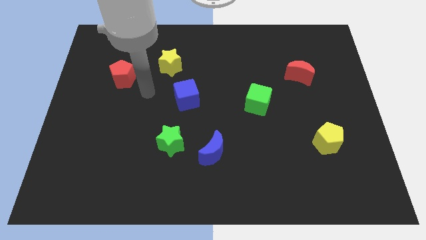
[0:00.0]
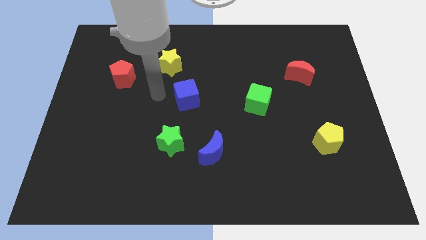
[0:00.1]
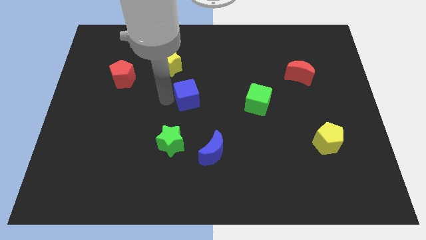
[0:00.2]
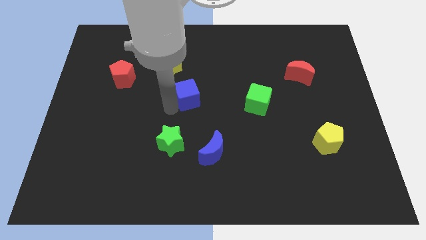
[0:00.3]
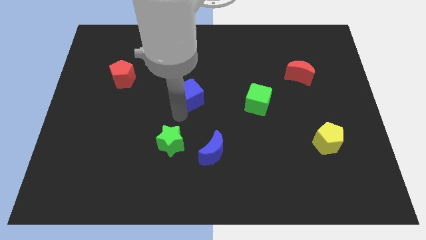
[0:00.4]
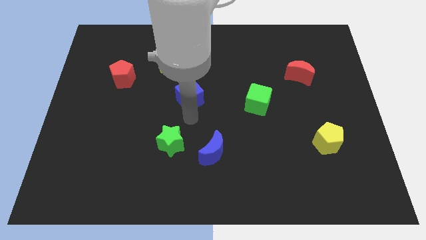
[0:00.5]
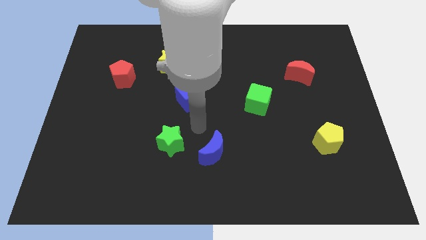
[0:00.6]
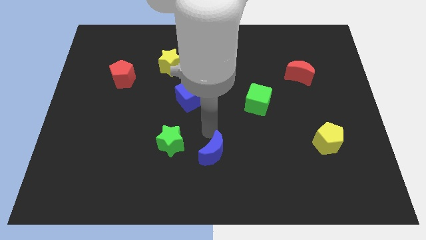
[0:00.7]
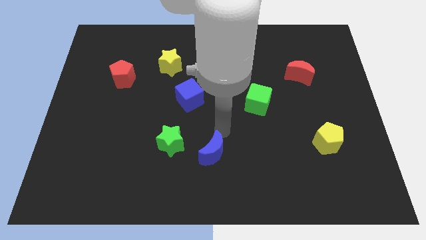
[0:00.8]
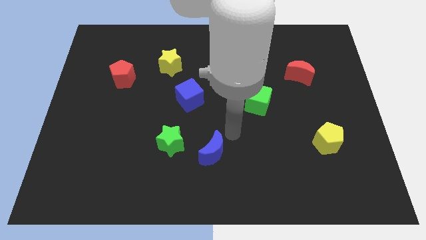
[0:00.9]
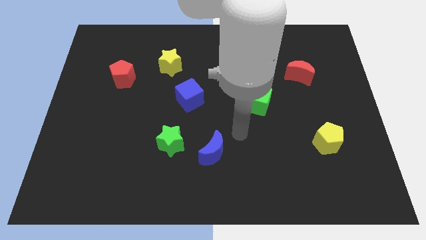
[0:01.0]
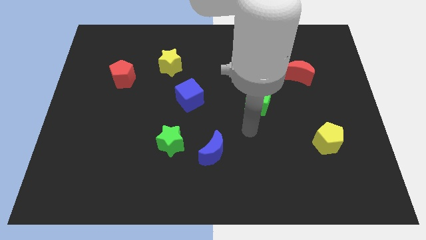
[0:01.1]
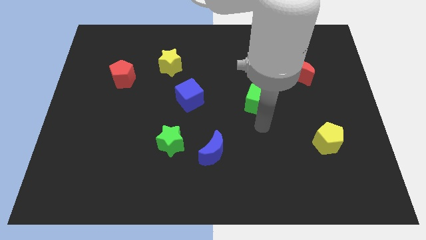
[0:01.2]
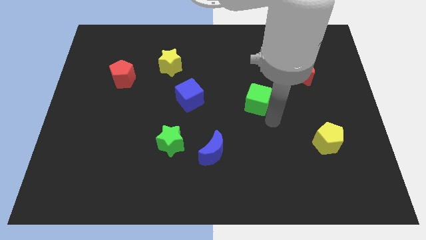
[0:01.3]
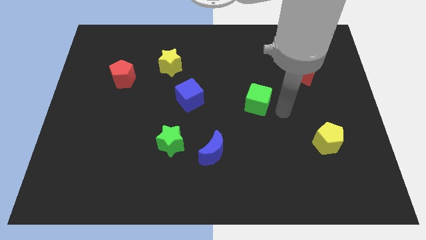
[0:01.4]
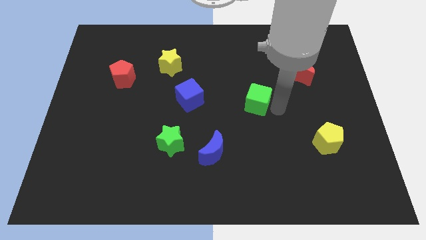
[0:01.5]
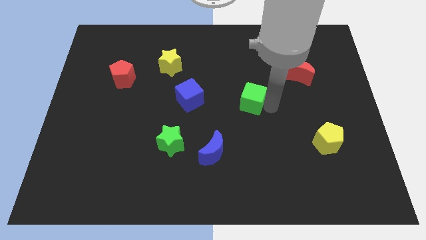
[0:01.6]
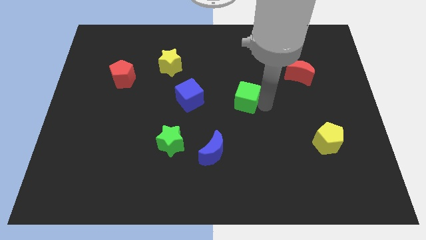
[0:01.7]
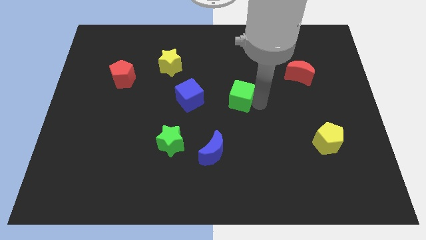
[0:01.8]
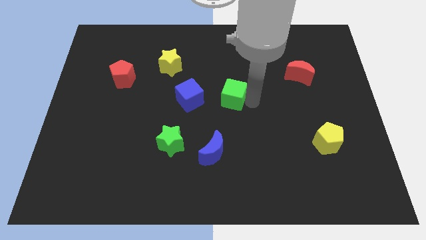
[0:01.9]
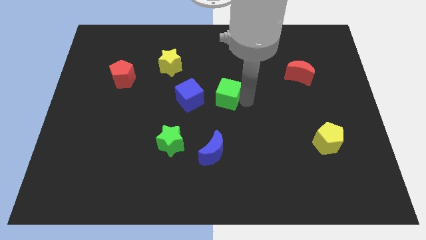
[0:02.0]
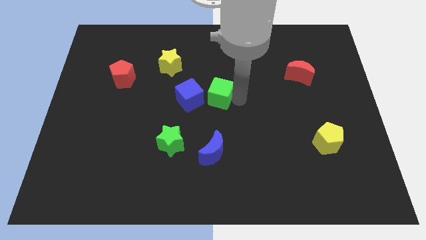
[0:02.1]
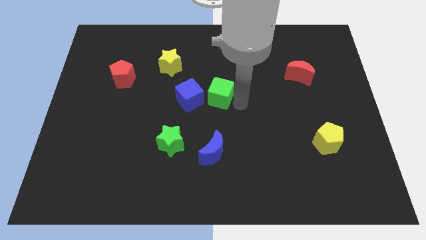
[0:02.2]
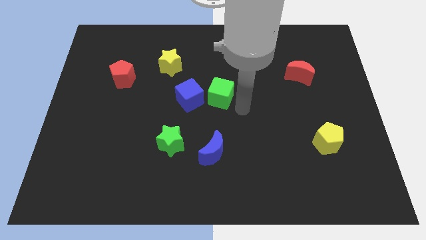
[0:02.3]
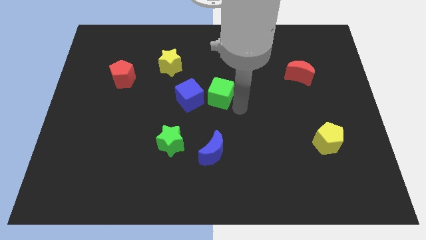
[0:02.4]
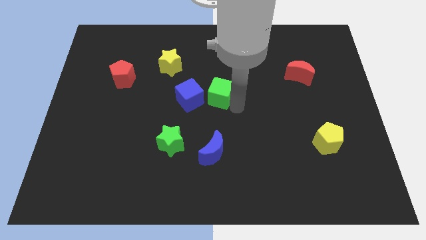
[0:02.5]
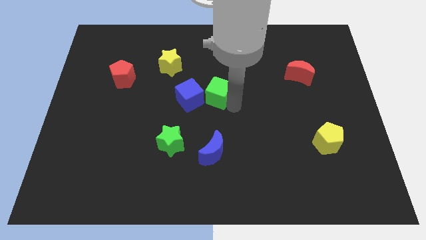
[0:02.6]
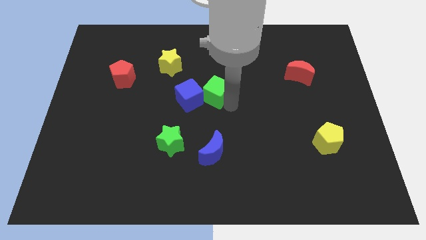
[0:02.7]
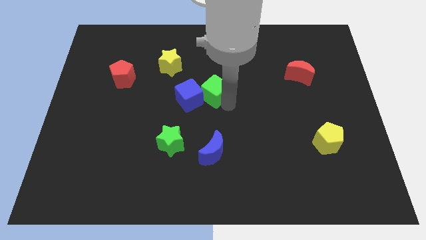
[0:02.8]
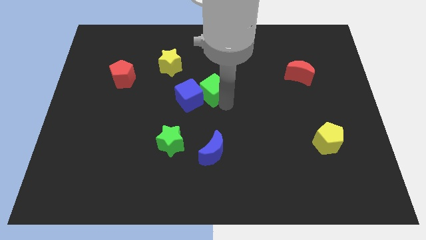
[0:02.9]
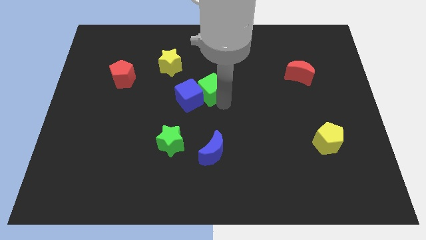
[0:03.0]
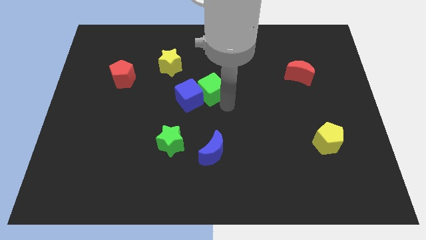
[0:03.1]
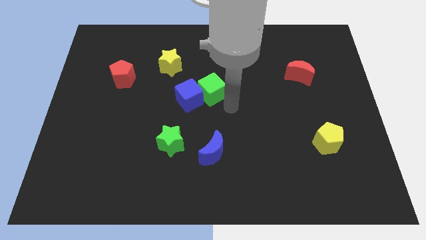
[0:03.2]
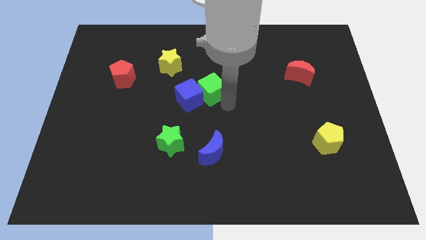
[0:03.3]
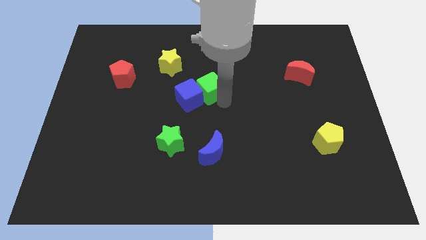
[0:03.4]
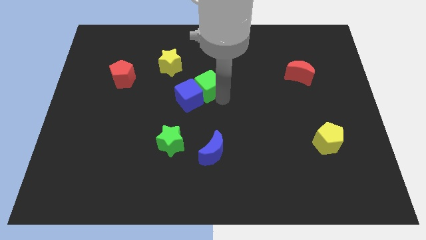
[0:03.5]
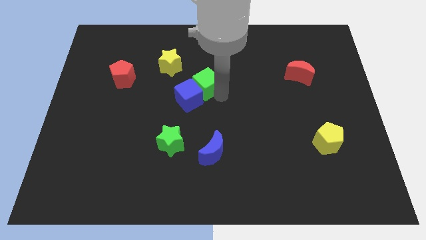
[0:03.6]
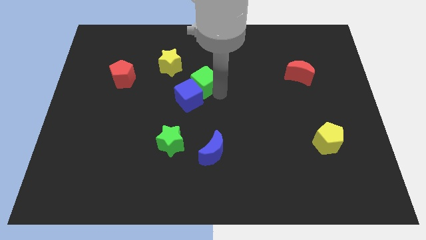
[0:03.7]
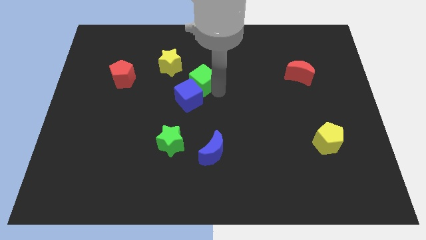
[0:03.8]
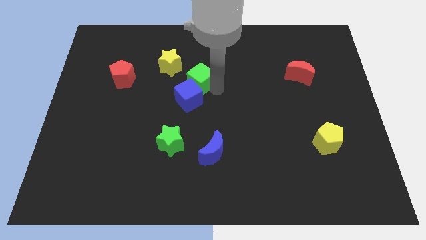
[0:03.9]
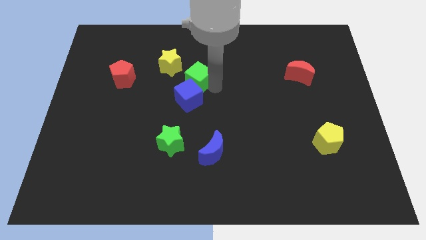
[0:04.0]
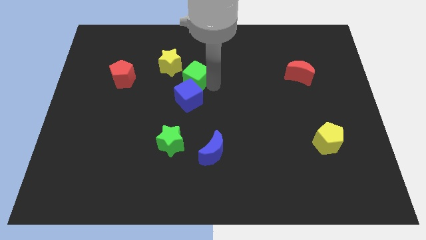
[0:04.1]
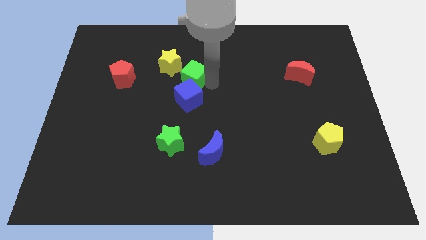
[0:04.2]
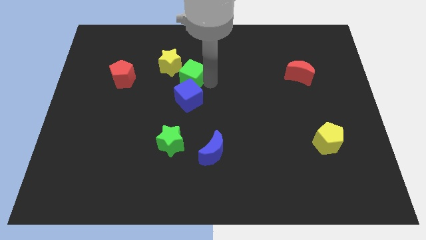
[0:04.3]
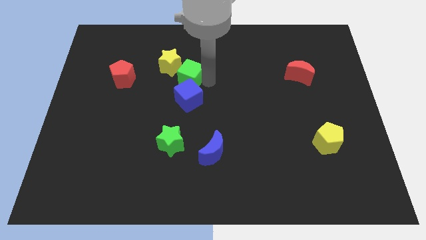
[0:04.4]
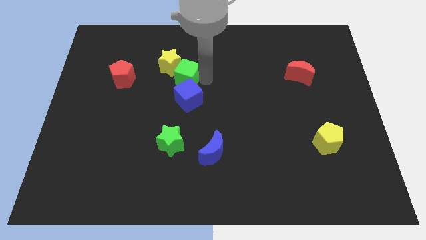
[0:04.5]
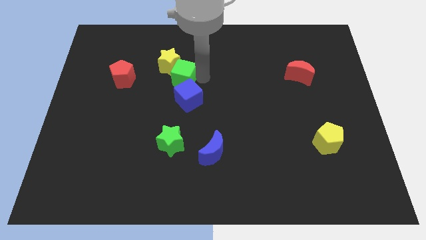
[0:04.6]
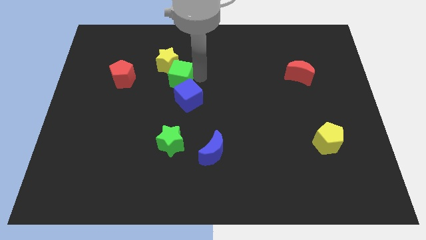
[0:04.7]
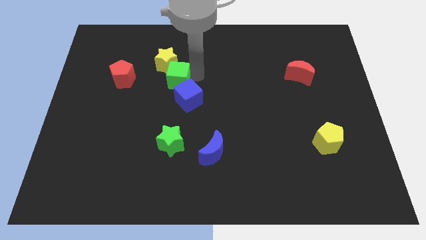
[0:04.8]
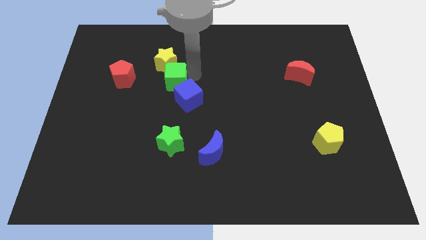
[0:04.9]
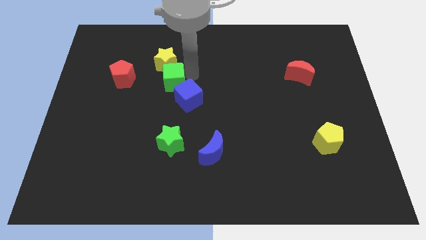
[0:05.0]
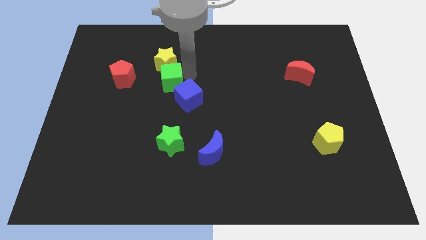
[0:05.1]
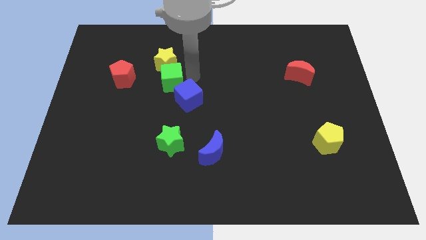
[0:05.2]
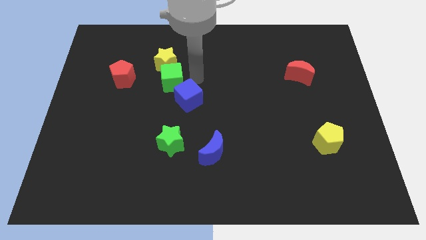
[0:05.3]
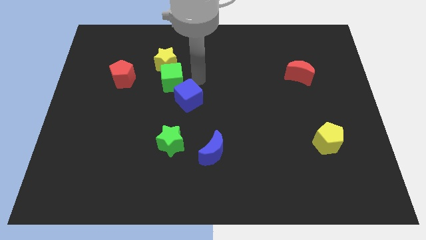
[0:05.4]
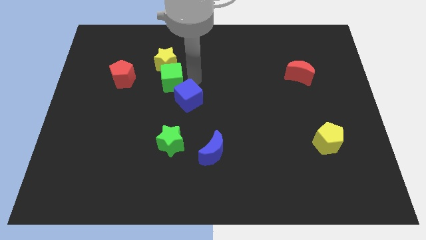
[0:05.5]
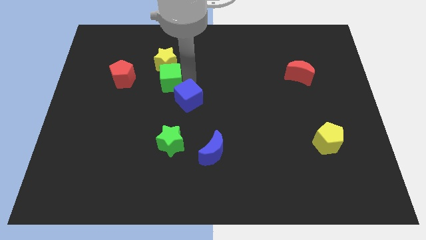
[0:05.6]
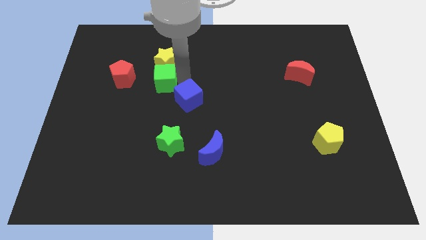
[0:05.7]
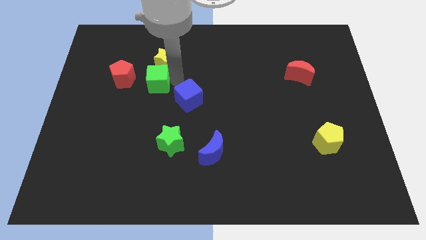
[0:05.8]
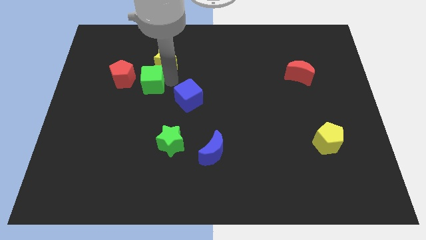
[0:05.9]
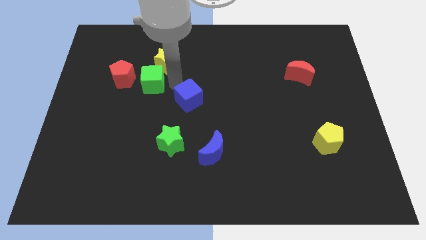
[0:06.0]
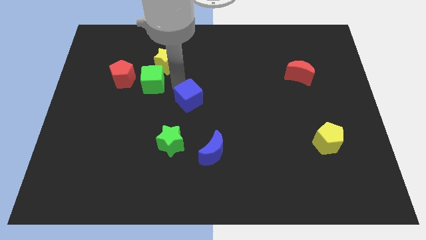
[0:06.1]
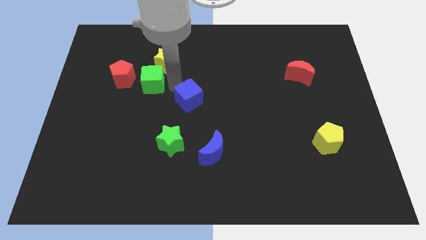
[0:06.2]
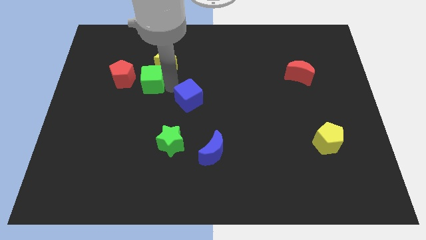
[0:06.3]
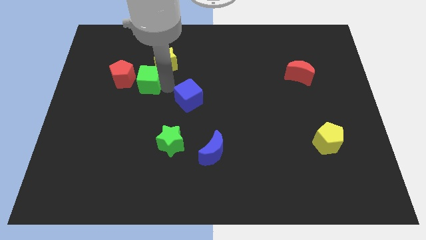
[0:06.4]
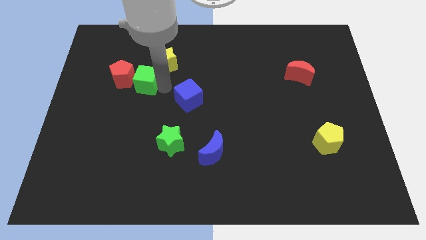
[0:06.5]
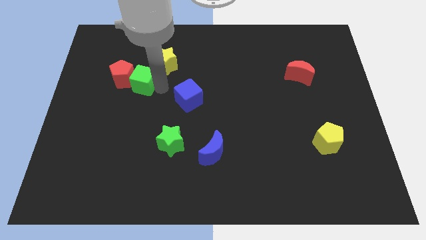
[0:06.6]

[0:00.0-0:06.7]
move the green cube to the red pentagon

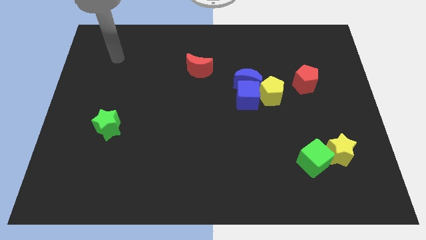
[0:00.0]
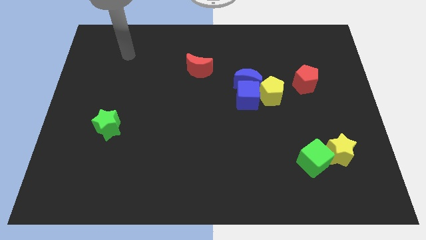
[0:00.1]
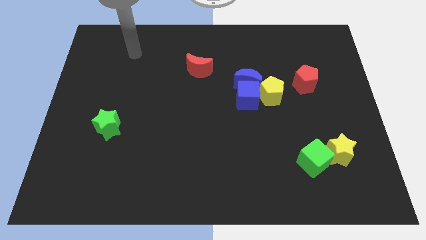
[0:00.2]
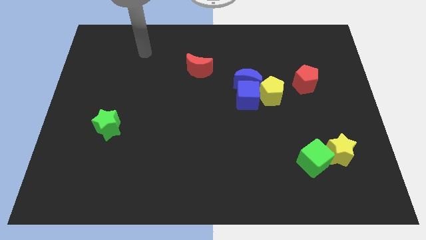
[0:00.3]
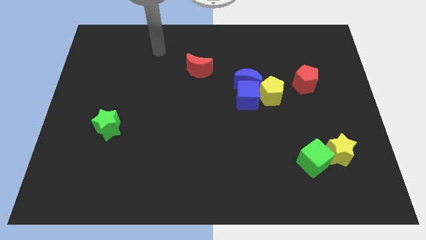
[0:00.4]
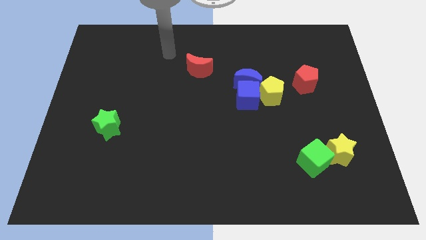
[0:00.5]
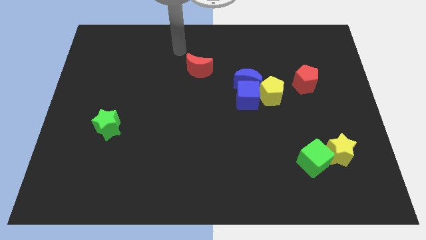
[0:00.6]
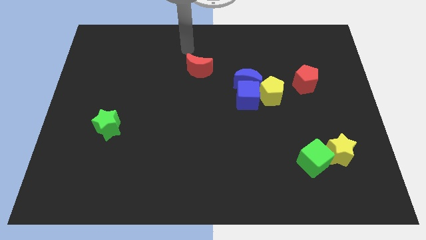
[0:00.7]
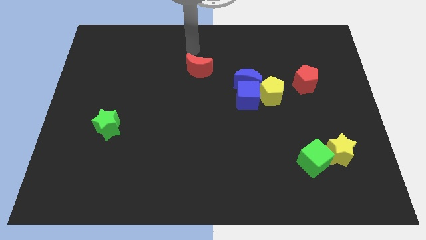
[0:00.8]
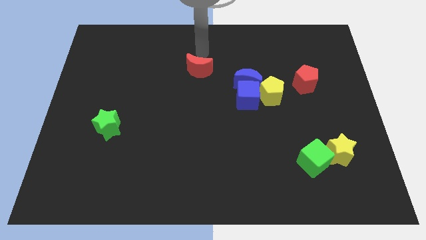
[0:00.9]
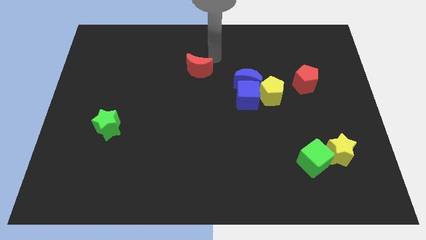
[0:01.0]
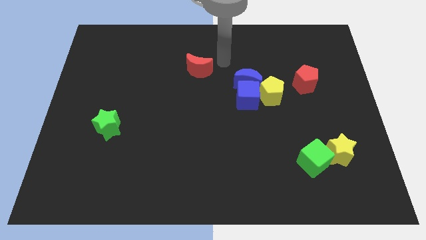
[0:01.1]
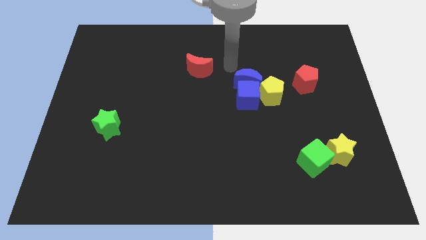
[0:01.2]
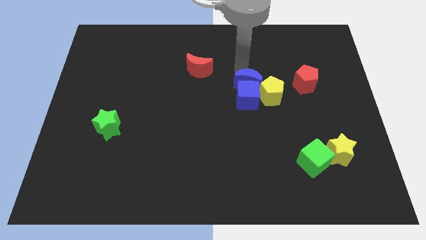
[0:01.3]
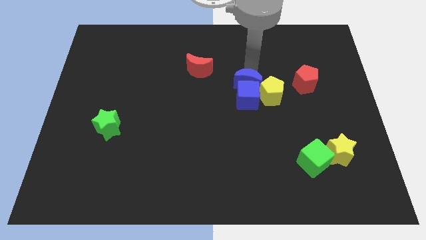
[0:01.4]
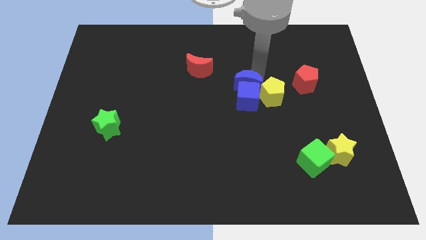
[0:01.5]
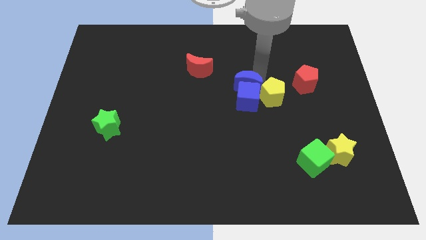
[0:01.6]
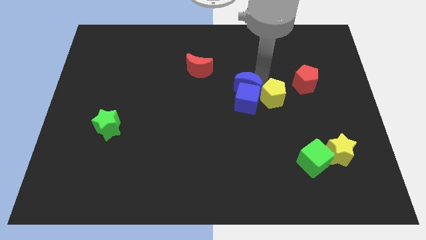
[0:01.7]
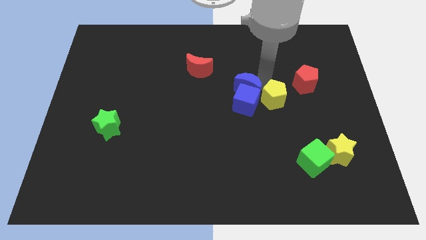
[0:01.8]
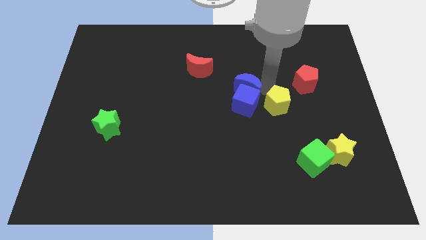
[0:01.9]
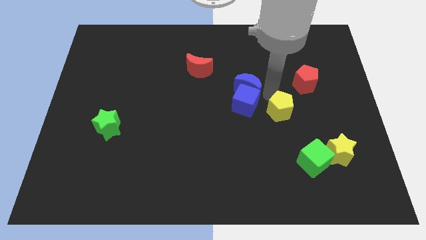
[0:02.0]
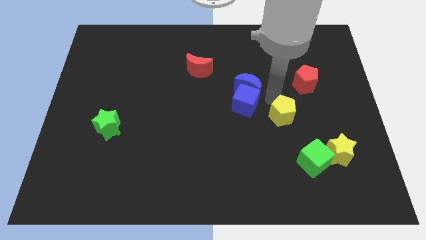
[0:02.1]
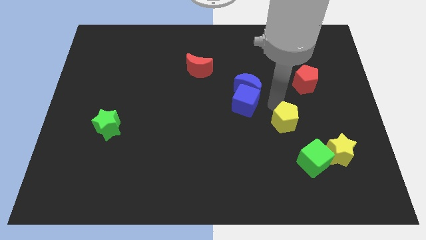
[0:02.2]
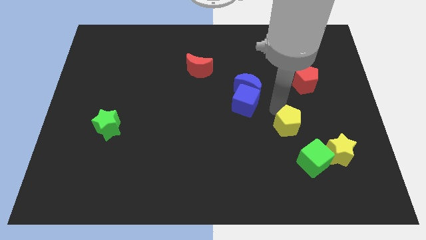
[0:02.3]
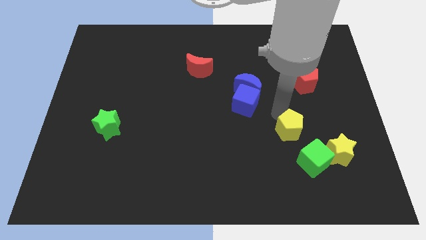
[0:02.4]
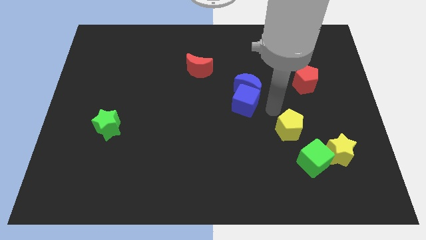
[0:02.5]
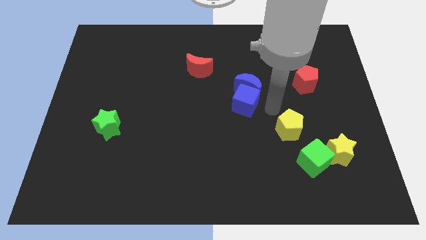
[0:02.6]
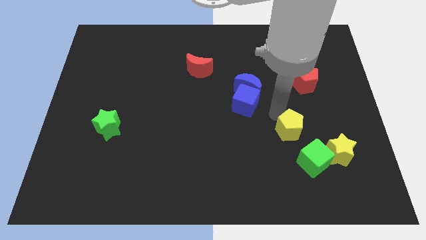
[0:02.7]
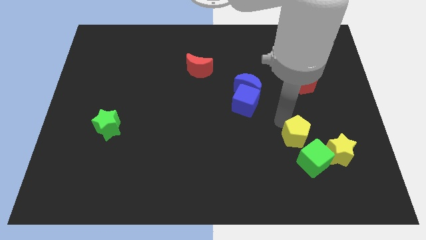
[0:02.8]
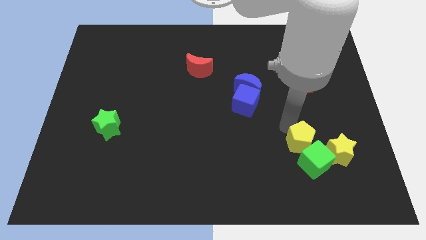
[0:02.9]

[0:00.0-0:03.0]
put the yellow pentagon towards the green cube
